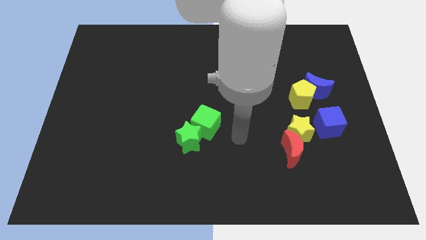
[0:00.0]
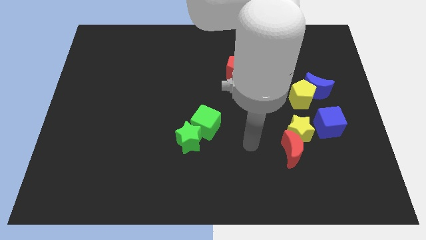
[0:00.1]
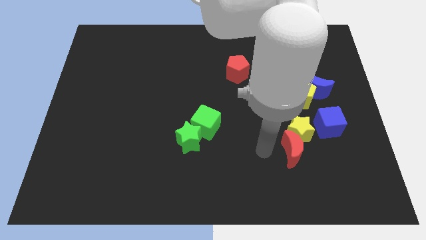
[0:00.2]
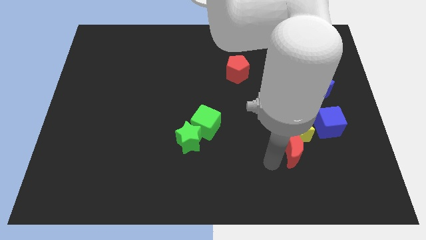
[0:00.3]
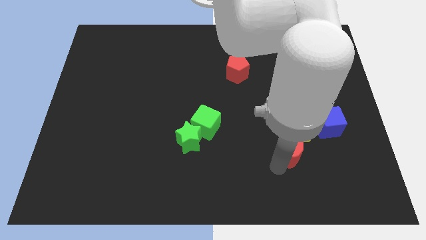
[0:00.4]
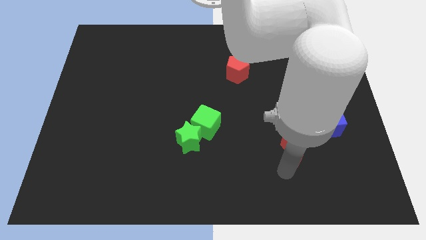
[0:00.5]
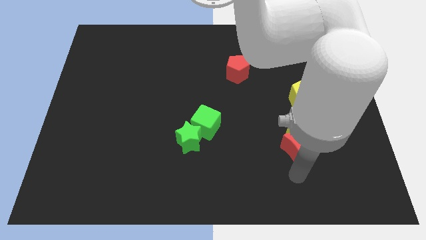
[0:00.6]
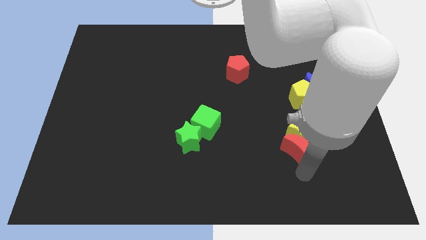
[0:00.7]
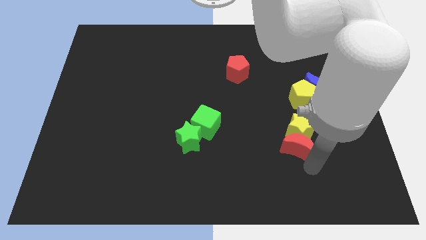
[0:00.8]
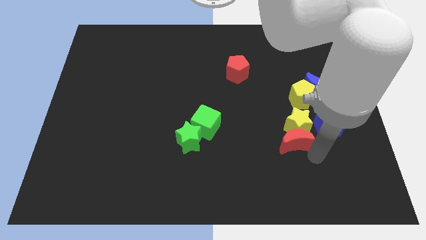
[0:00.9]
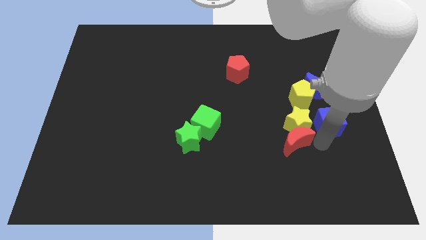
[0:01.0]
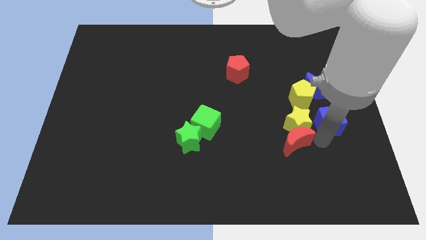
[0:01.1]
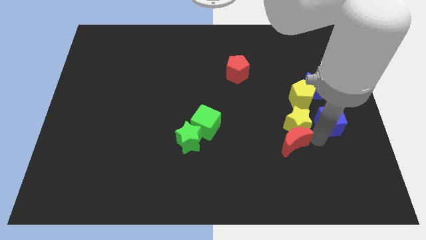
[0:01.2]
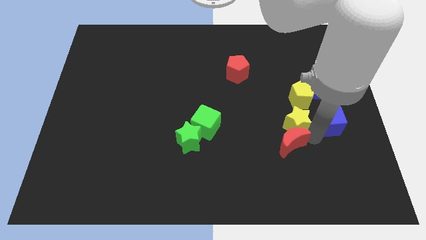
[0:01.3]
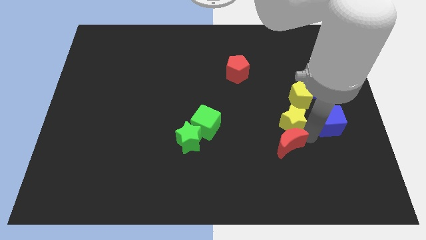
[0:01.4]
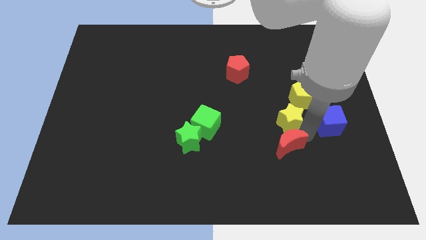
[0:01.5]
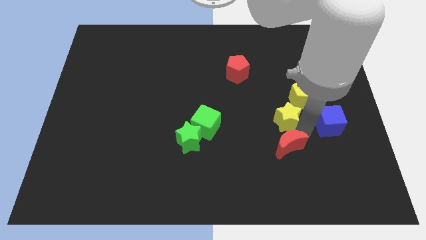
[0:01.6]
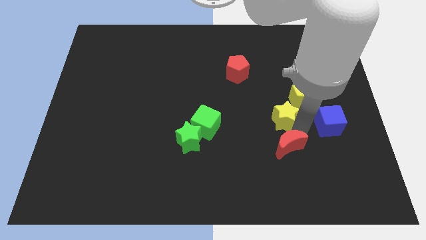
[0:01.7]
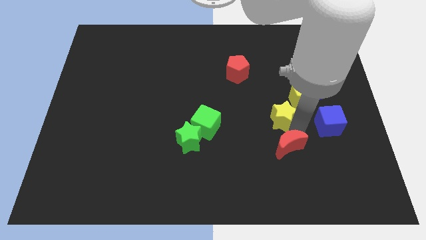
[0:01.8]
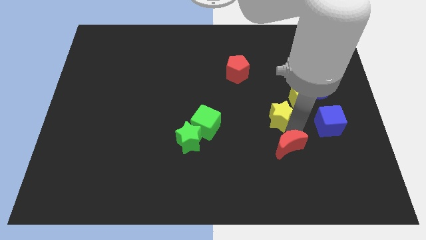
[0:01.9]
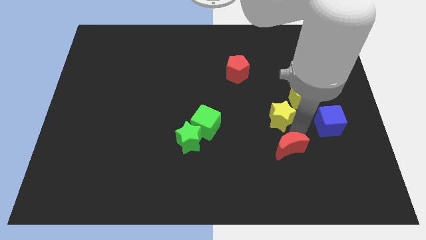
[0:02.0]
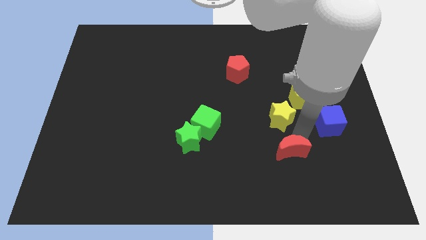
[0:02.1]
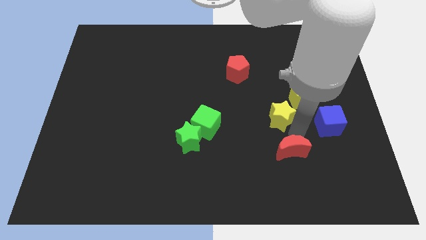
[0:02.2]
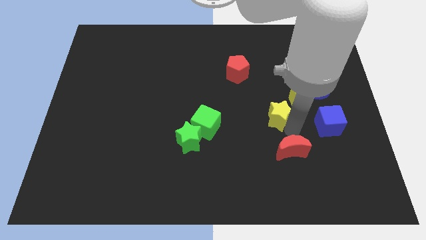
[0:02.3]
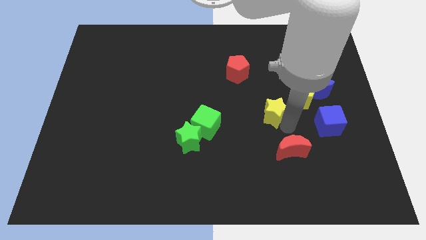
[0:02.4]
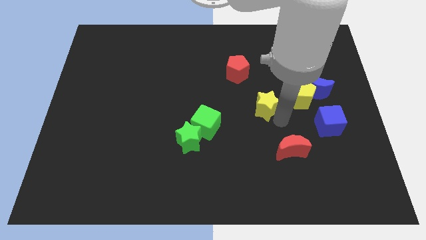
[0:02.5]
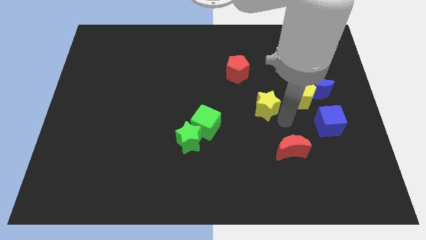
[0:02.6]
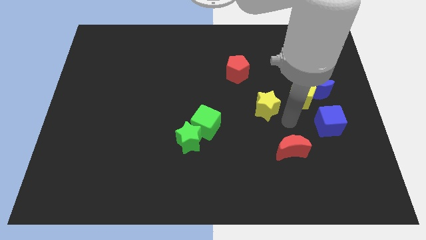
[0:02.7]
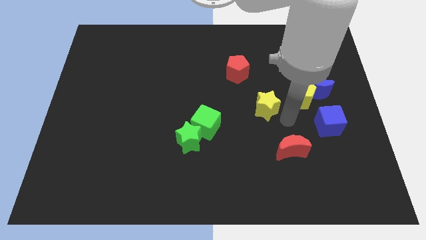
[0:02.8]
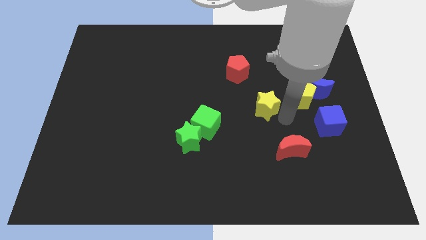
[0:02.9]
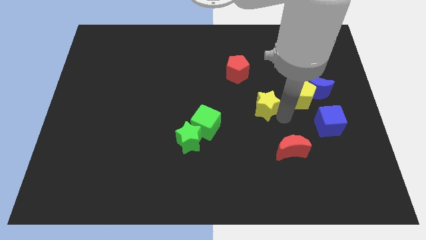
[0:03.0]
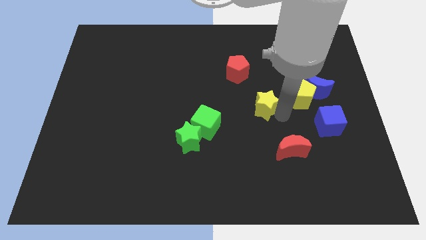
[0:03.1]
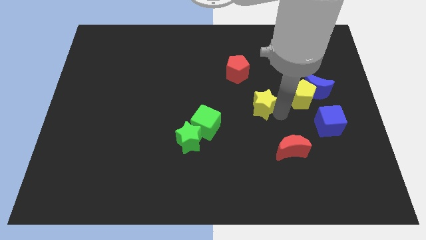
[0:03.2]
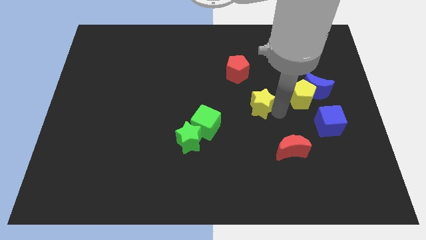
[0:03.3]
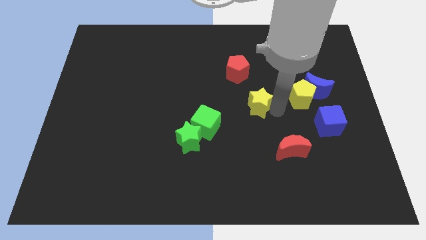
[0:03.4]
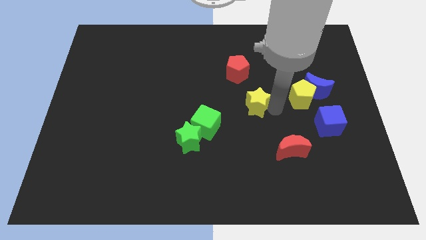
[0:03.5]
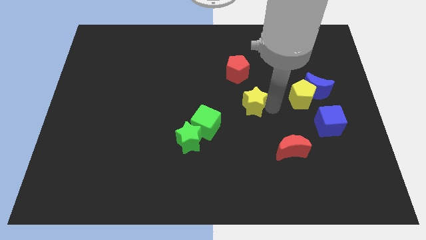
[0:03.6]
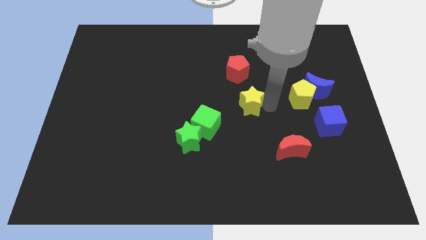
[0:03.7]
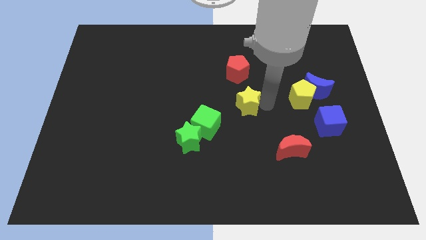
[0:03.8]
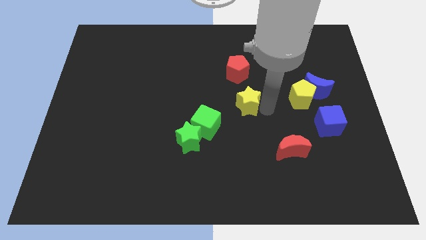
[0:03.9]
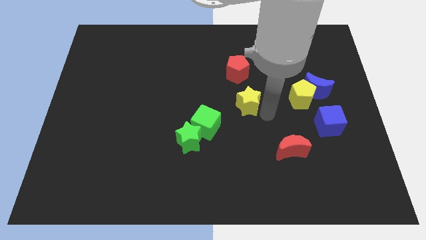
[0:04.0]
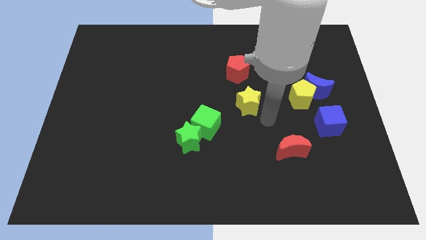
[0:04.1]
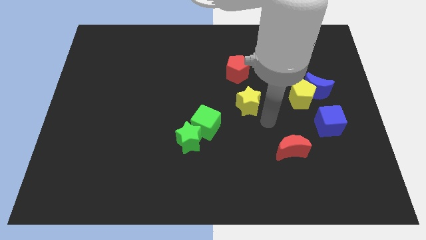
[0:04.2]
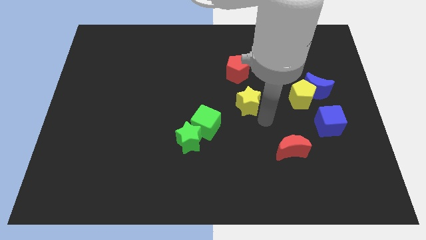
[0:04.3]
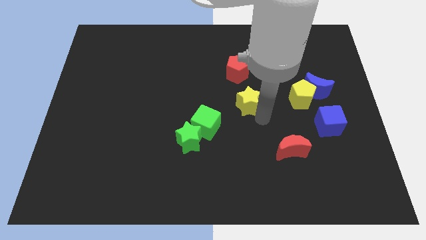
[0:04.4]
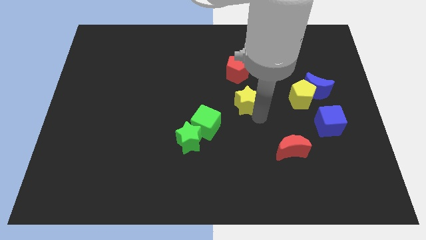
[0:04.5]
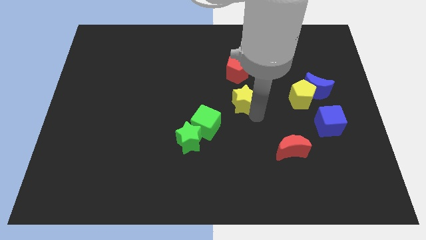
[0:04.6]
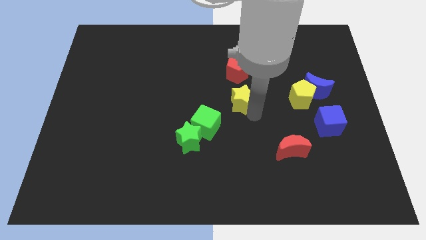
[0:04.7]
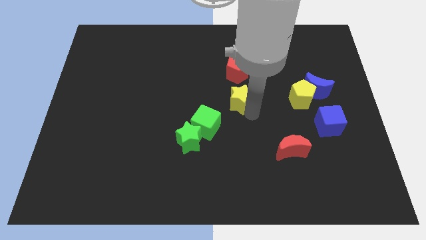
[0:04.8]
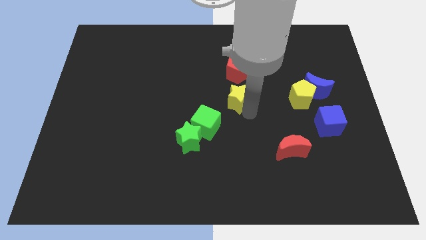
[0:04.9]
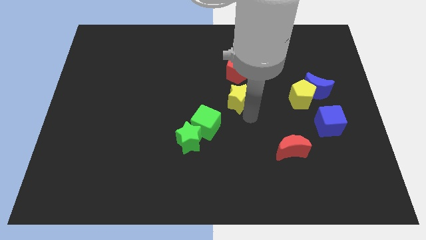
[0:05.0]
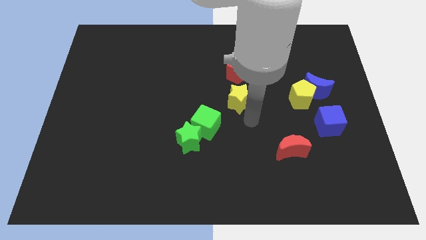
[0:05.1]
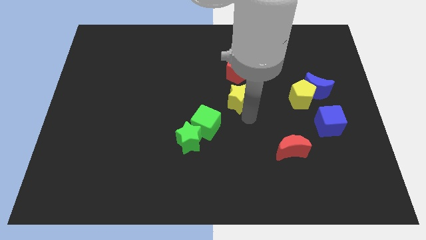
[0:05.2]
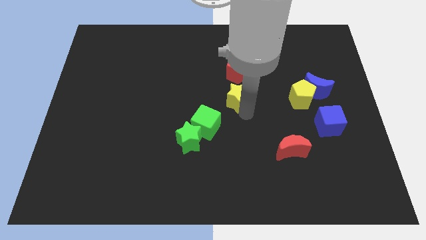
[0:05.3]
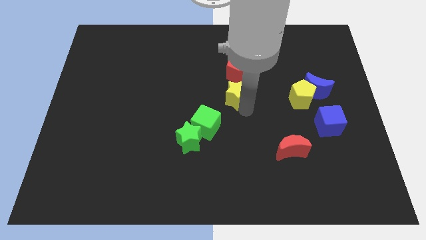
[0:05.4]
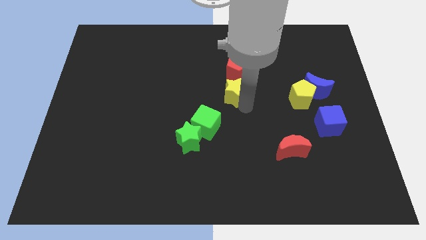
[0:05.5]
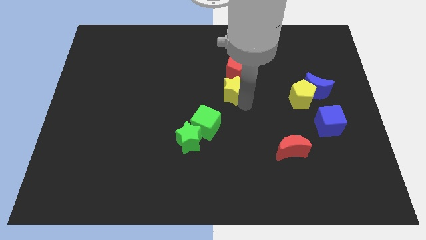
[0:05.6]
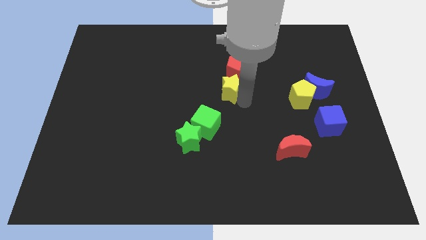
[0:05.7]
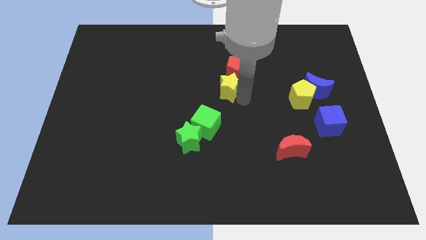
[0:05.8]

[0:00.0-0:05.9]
push the yellow star upwards and then left

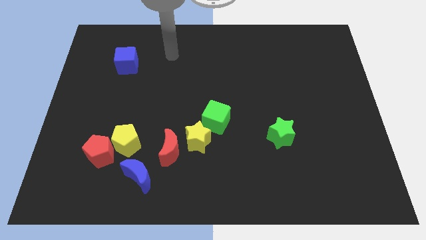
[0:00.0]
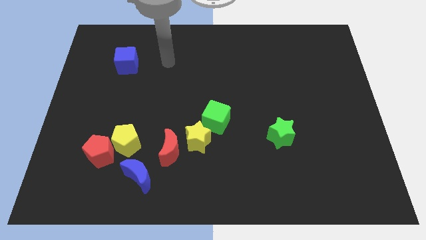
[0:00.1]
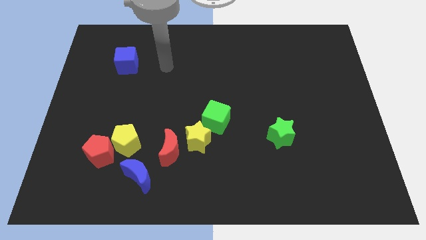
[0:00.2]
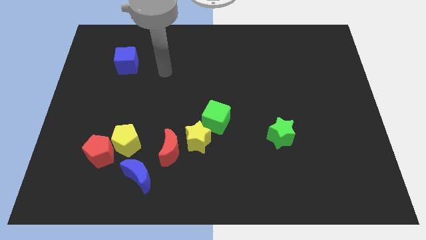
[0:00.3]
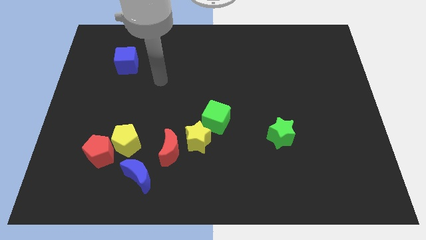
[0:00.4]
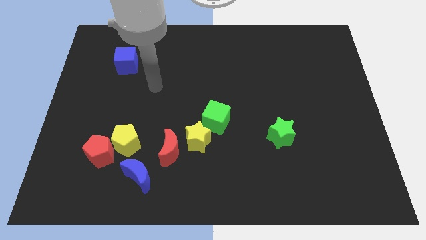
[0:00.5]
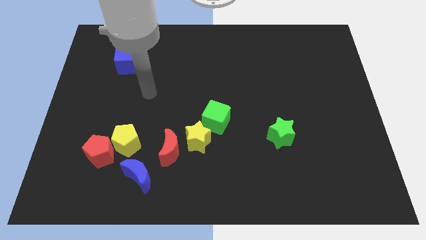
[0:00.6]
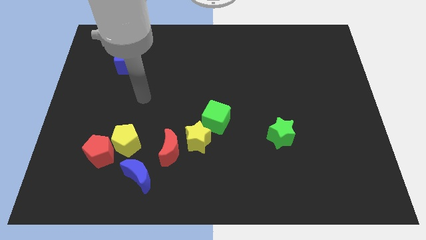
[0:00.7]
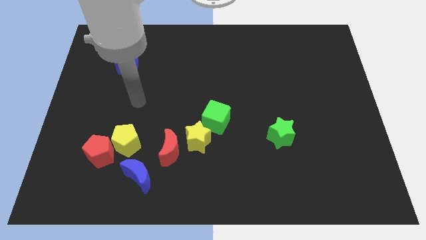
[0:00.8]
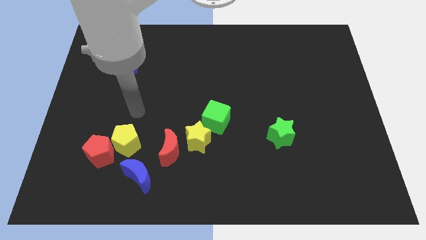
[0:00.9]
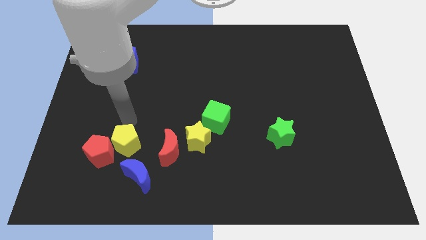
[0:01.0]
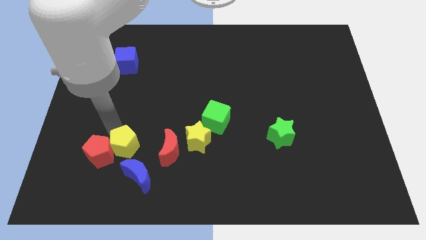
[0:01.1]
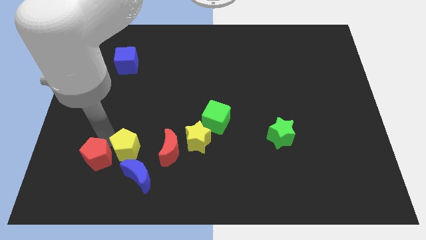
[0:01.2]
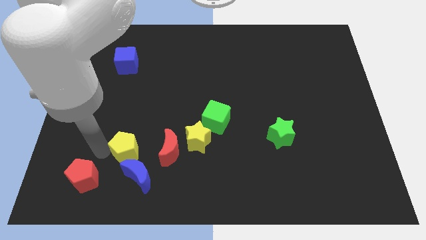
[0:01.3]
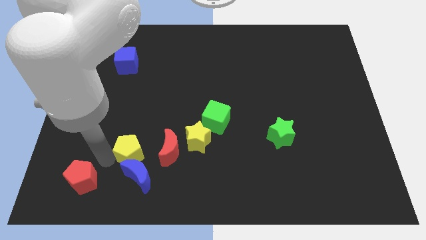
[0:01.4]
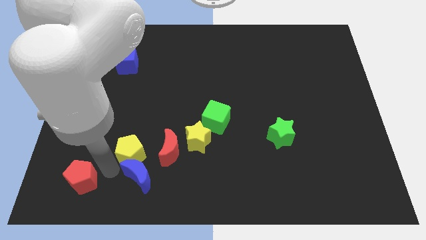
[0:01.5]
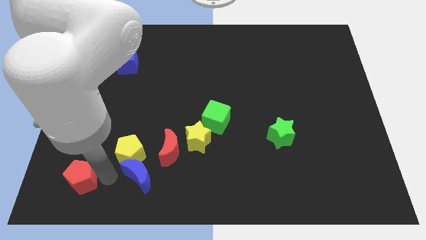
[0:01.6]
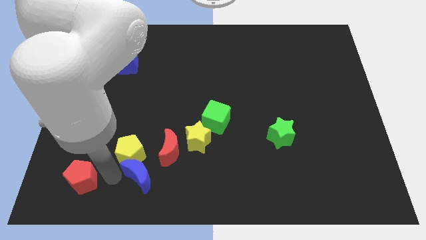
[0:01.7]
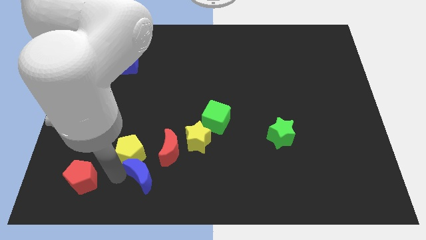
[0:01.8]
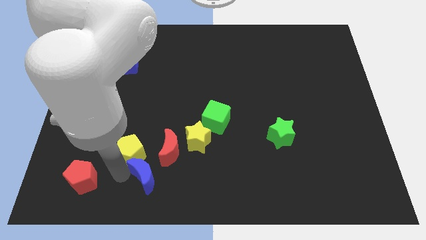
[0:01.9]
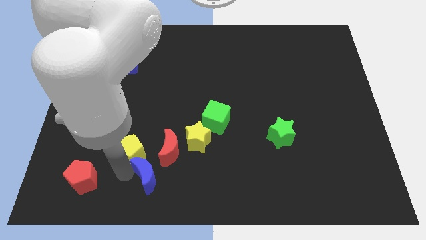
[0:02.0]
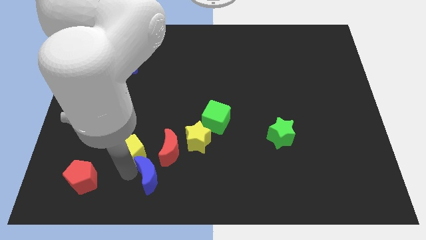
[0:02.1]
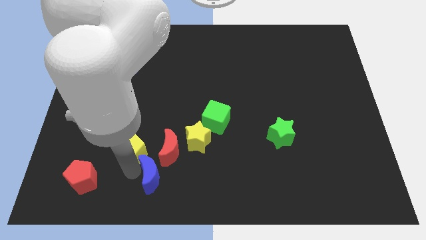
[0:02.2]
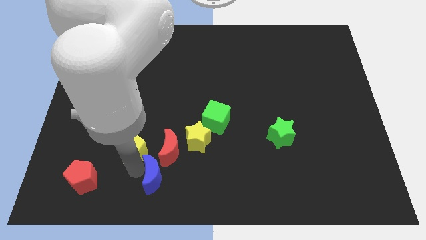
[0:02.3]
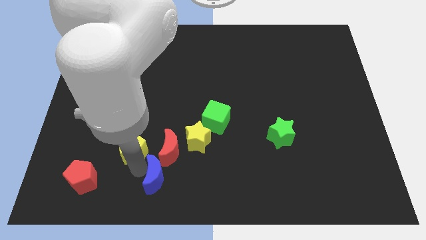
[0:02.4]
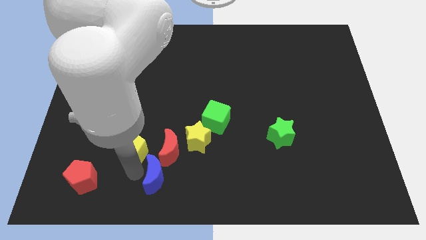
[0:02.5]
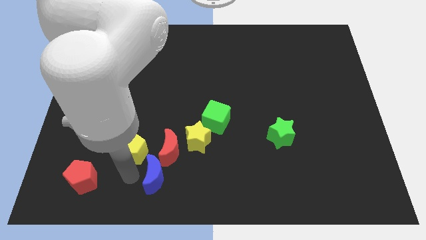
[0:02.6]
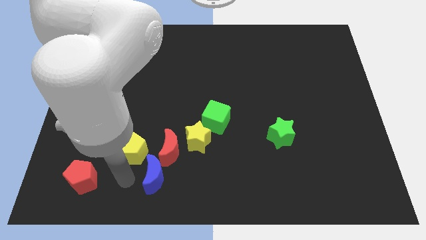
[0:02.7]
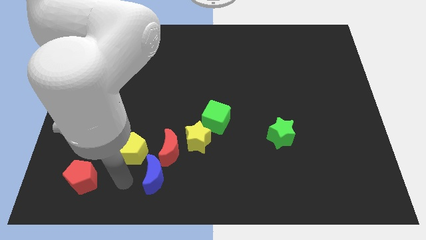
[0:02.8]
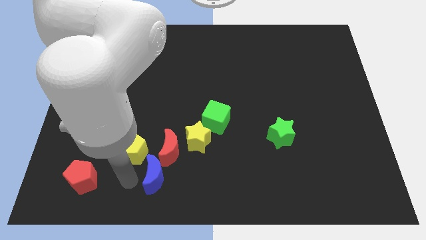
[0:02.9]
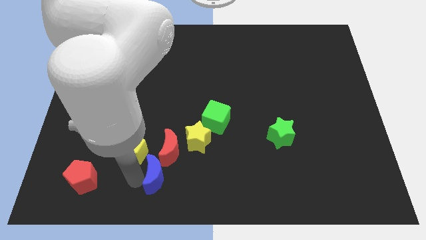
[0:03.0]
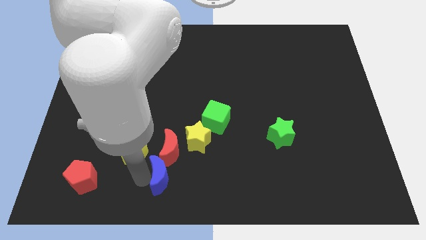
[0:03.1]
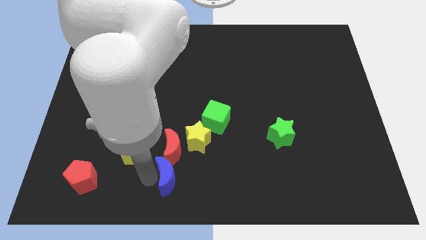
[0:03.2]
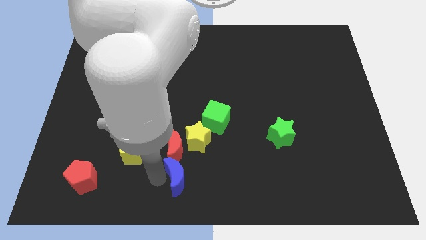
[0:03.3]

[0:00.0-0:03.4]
move the blue moon a little bit right
